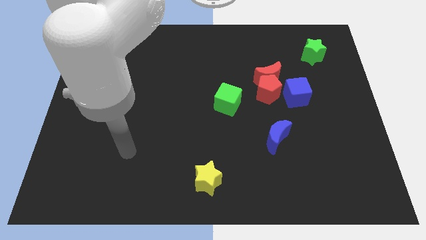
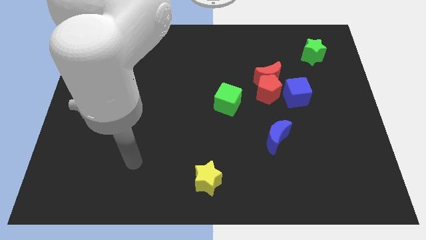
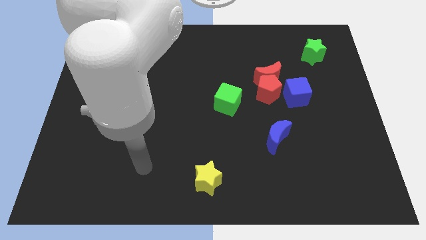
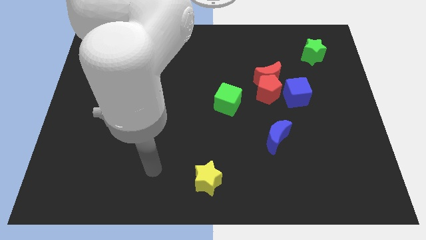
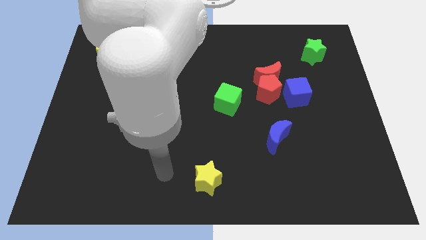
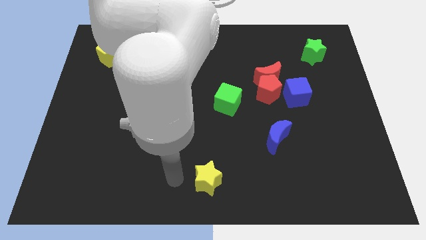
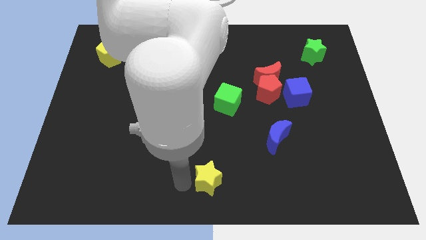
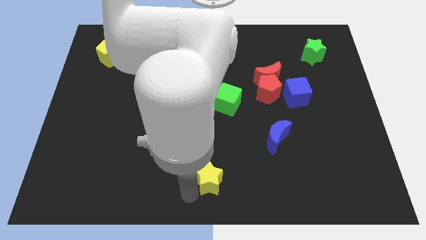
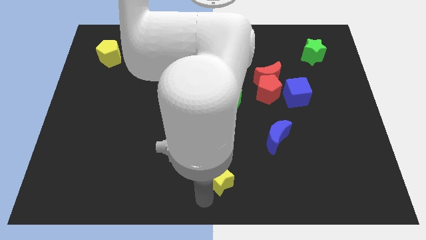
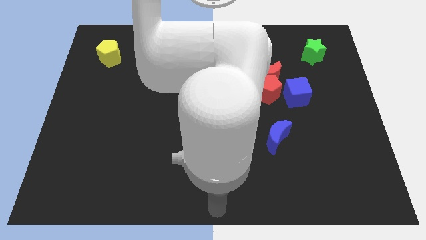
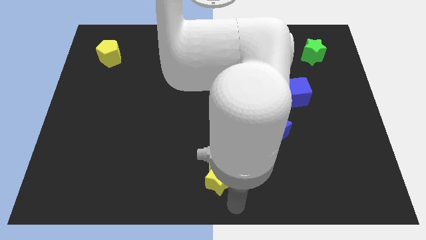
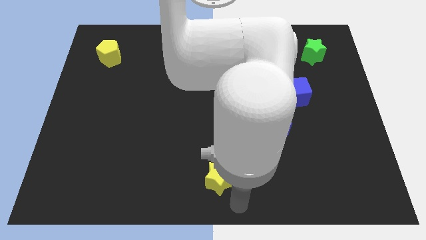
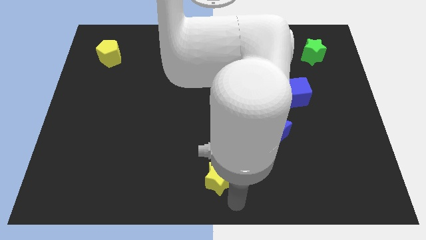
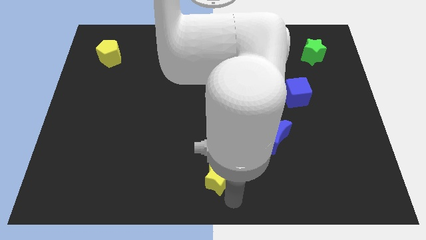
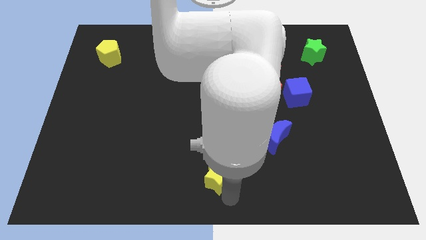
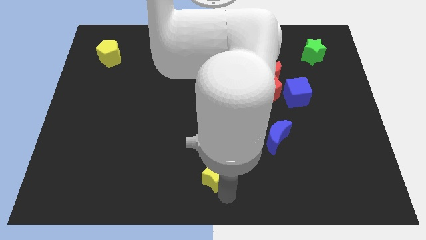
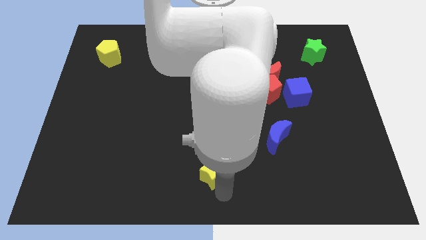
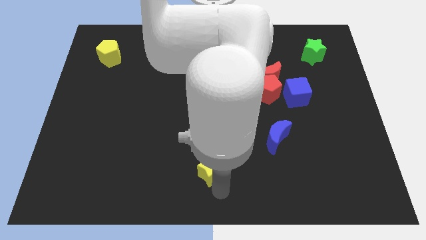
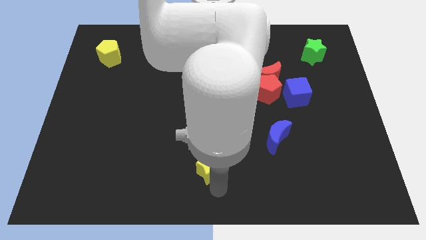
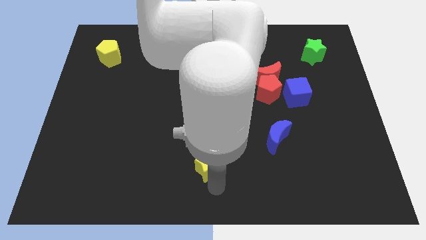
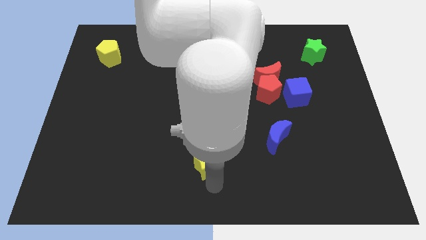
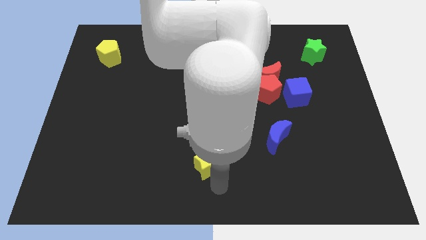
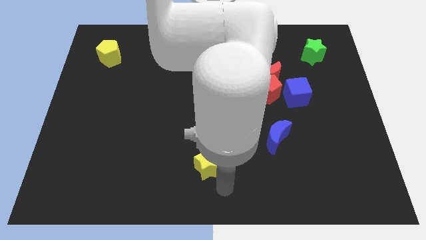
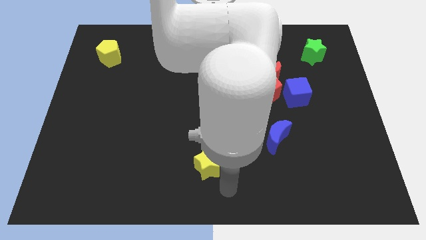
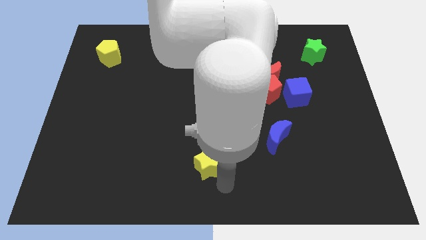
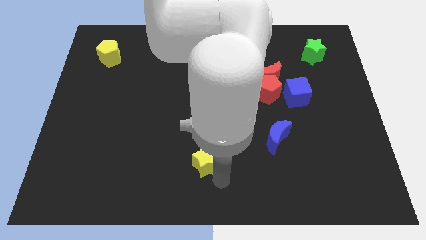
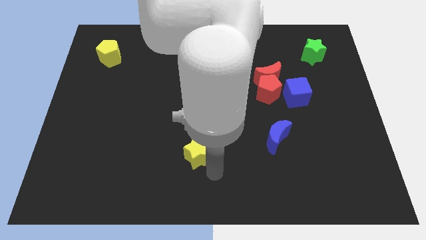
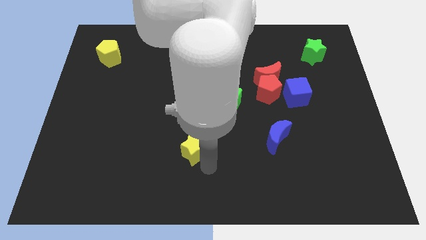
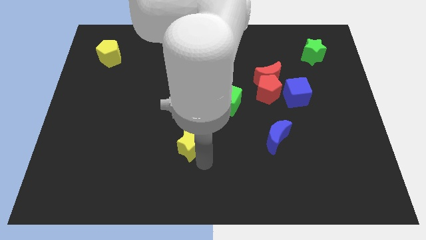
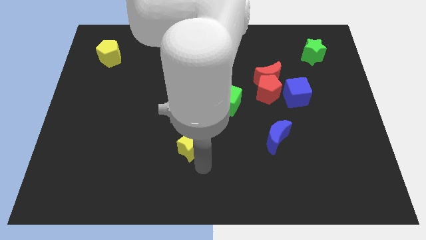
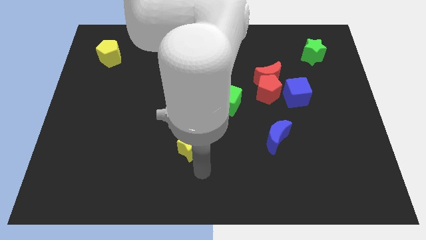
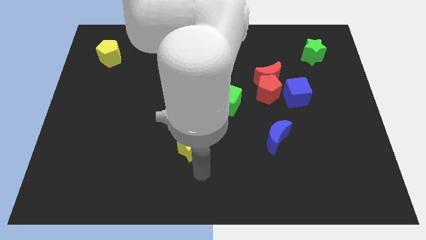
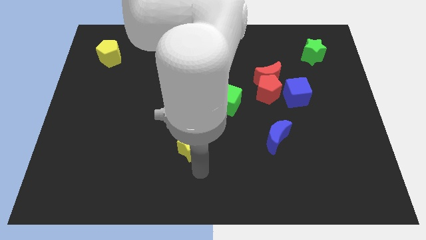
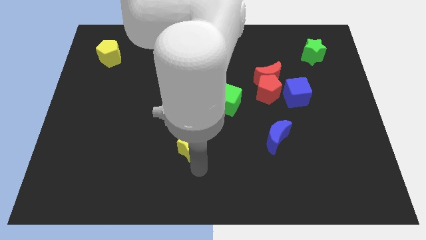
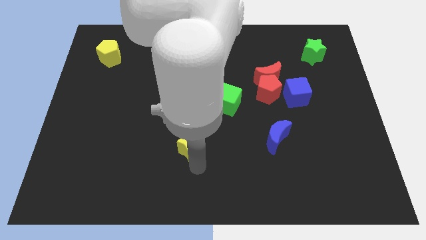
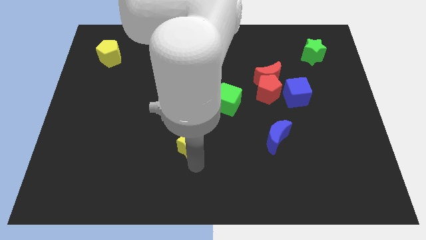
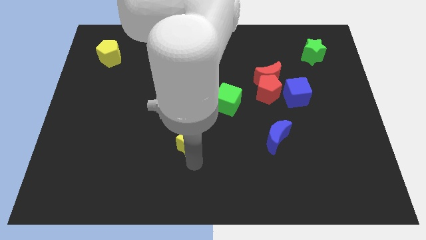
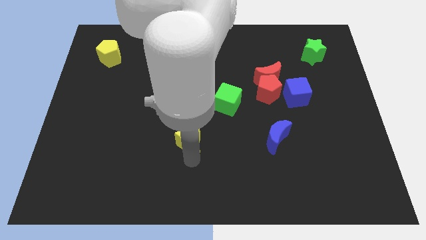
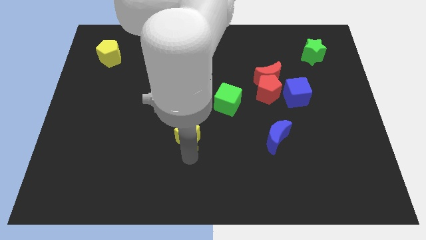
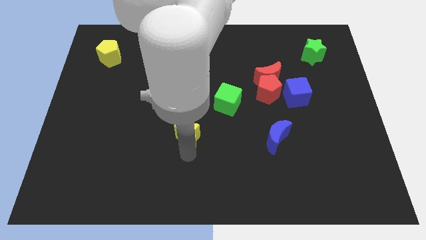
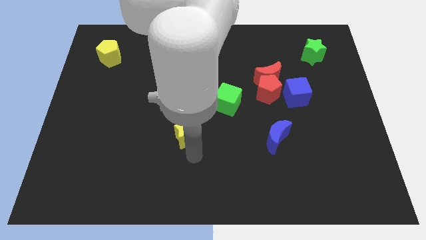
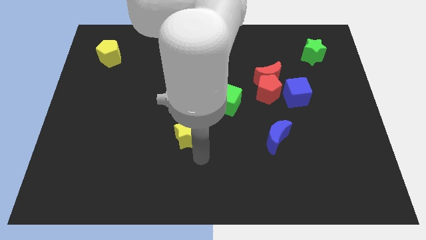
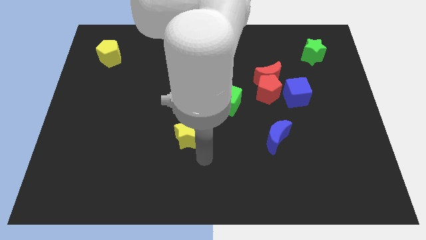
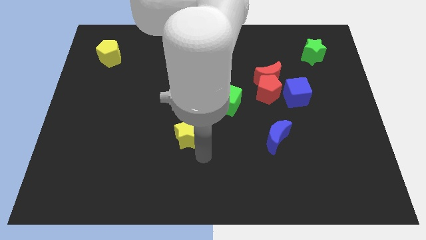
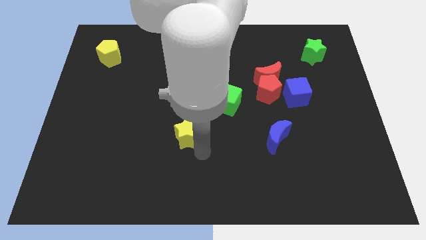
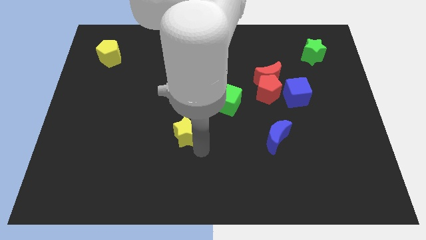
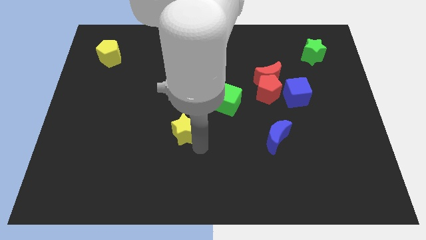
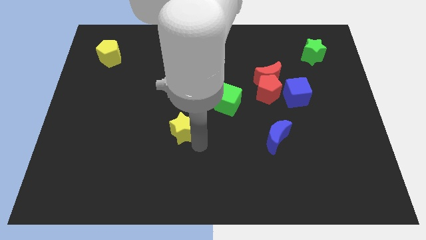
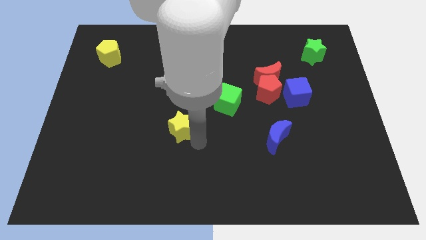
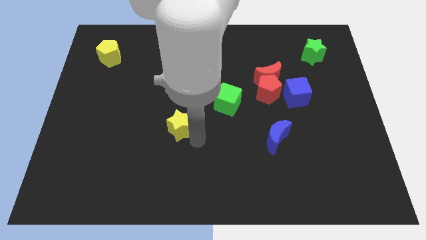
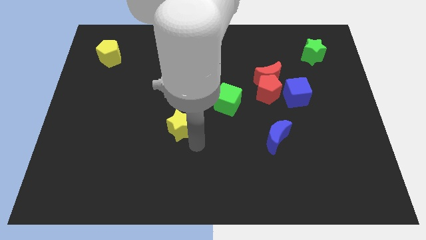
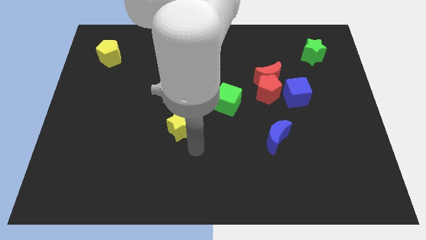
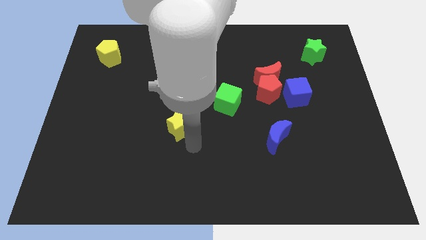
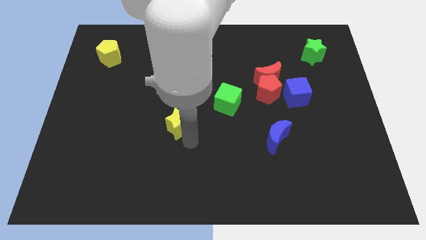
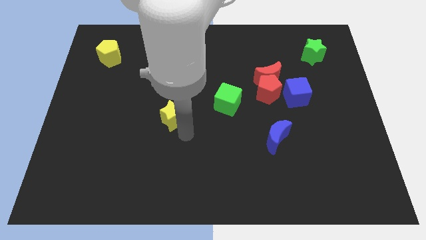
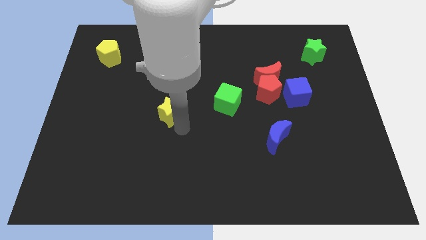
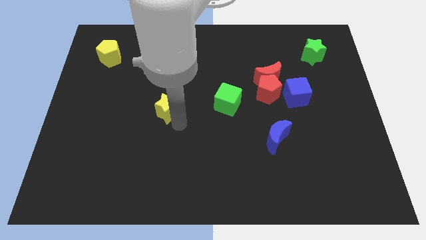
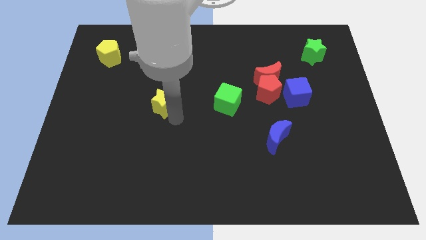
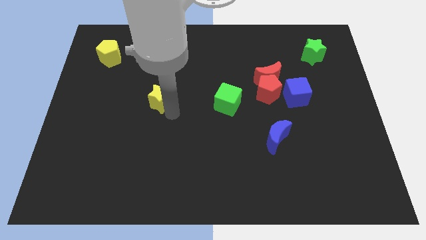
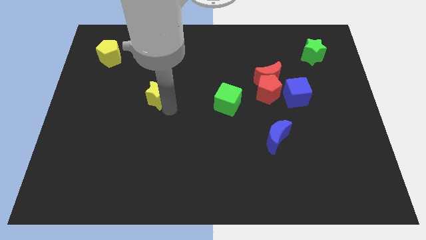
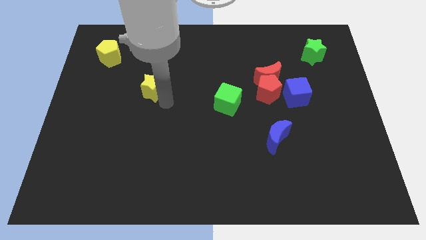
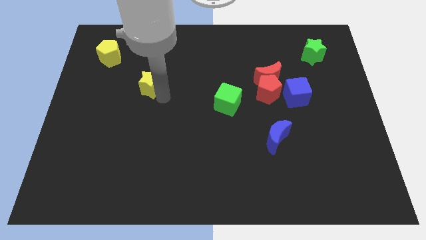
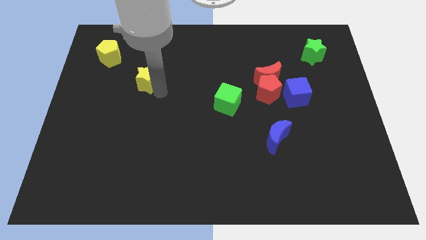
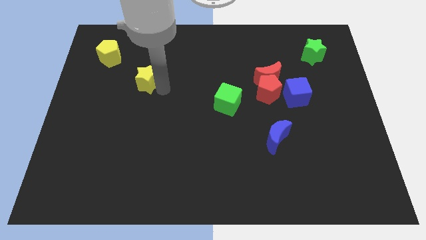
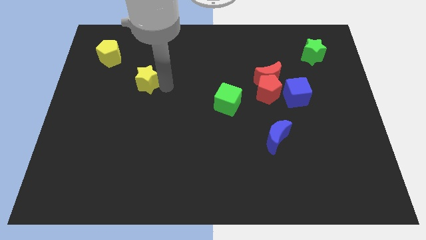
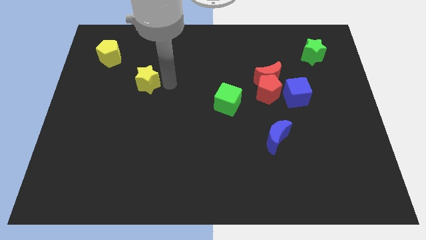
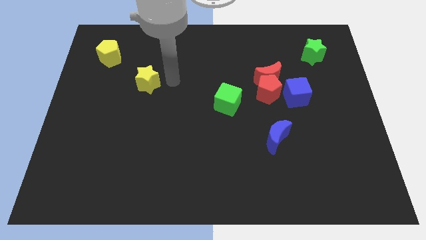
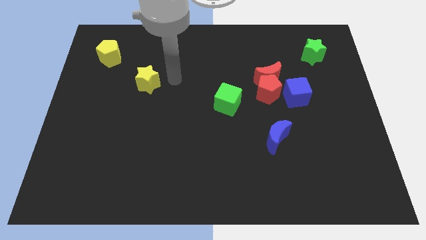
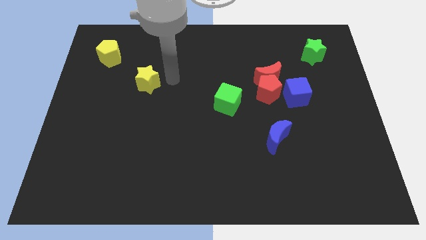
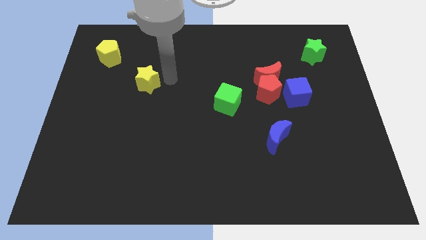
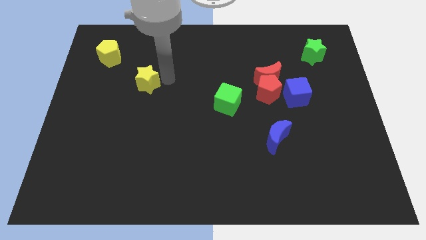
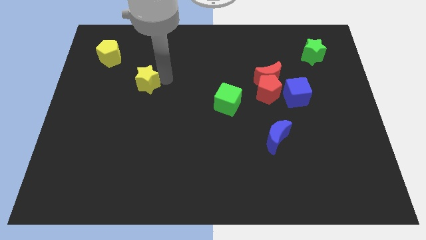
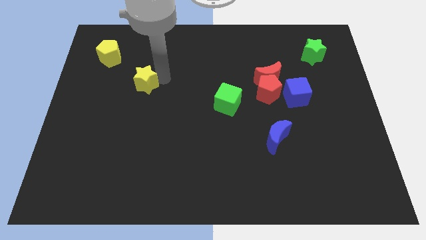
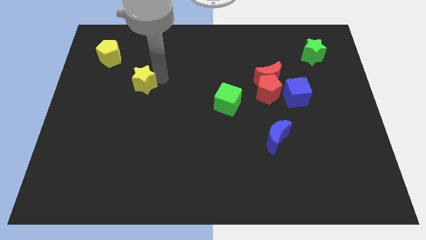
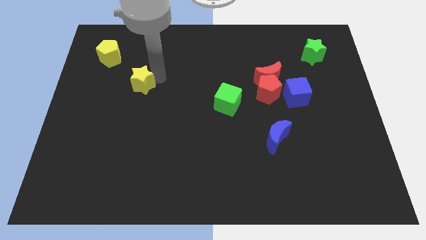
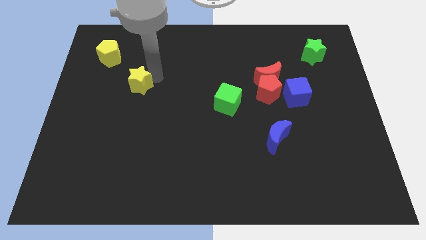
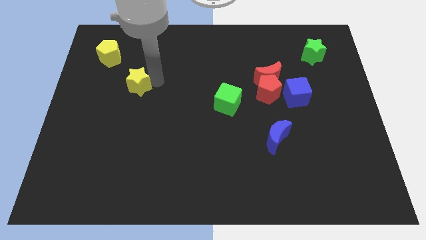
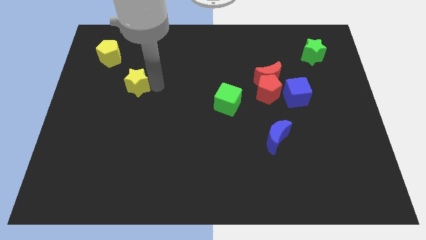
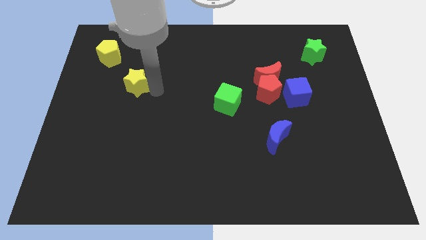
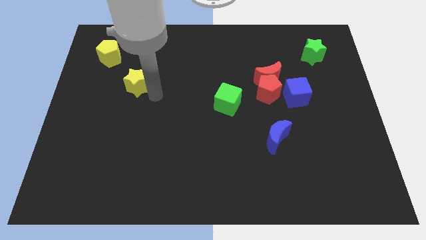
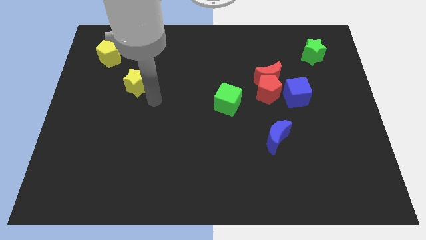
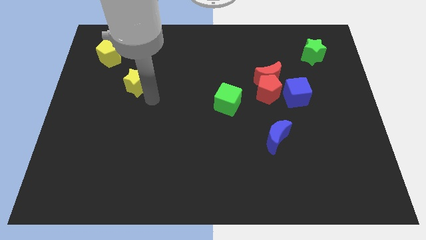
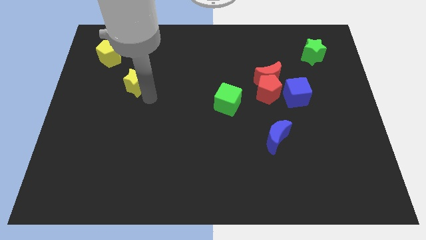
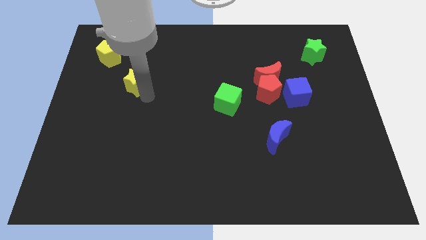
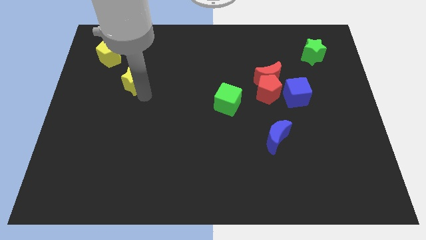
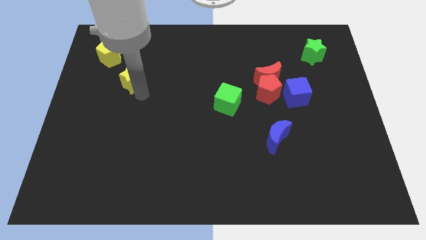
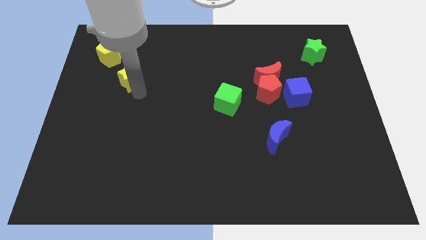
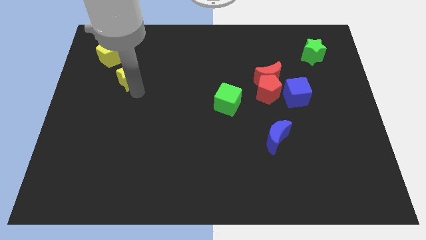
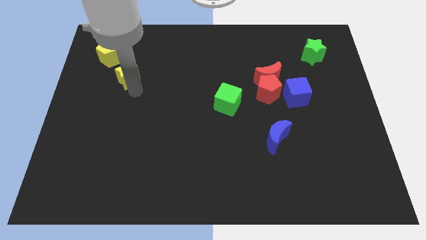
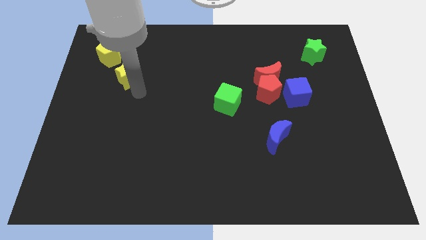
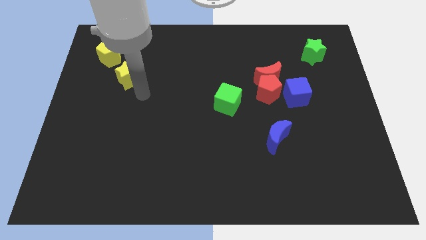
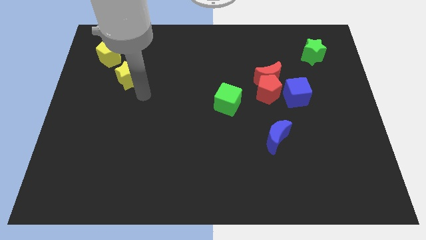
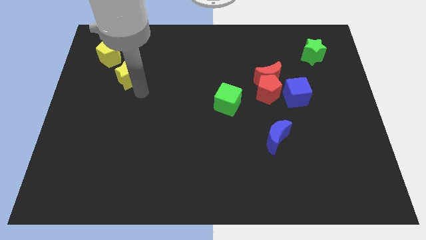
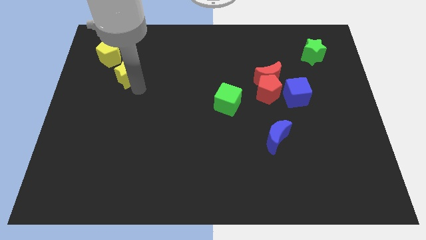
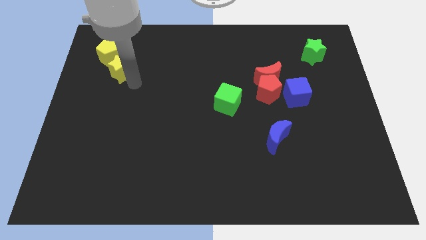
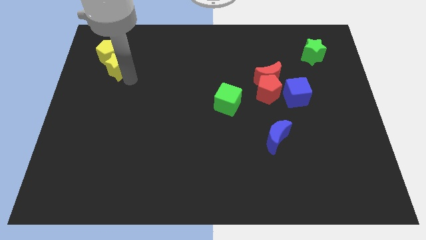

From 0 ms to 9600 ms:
slide the yellow star next to the yellow pentagon
